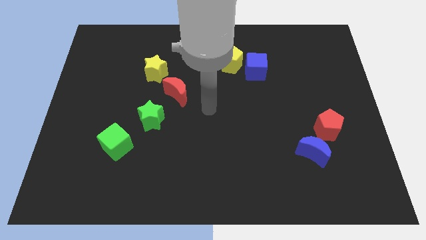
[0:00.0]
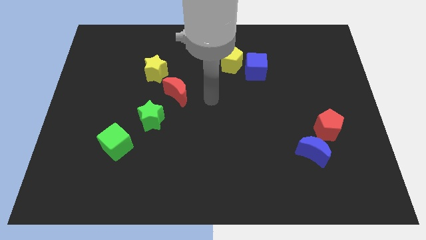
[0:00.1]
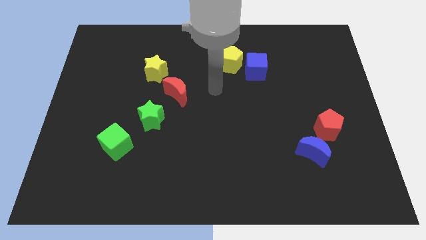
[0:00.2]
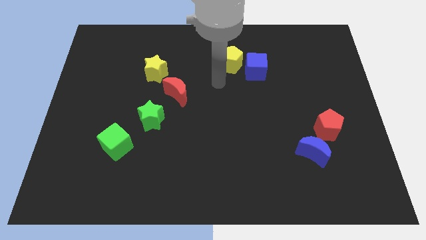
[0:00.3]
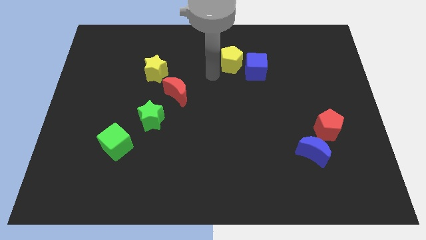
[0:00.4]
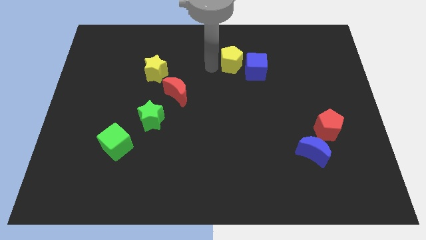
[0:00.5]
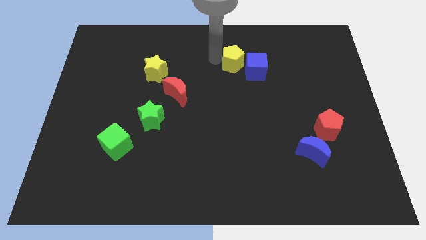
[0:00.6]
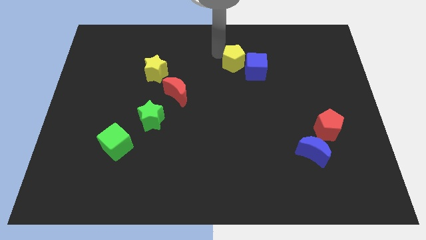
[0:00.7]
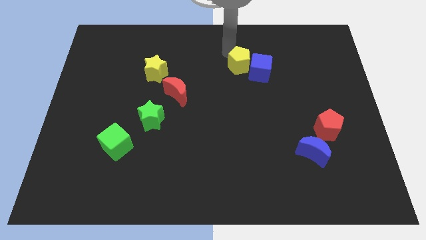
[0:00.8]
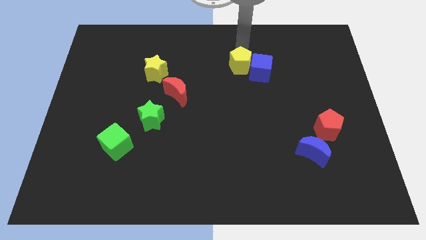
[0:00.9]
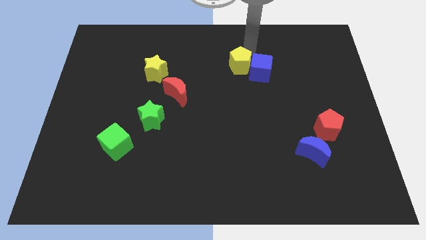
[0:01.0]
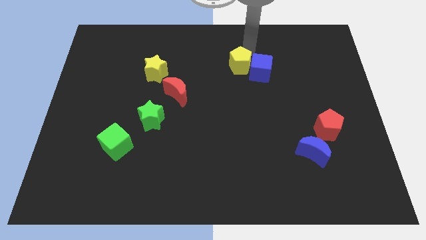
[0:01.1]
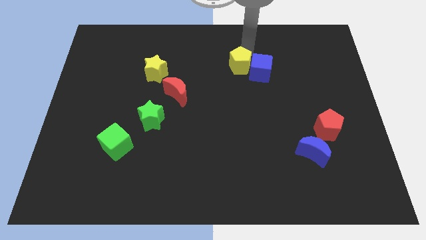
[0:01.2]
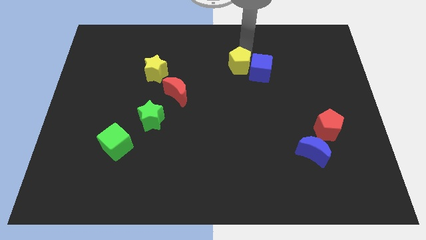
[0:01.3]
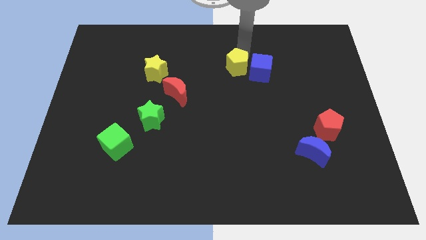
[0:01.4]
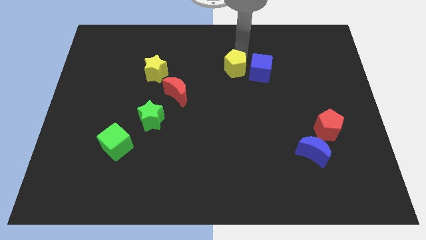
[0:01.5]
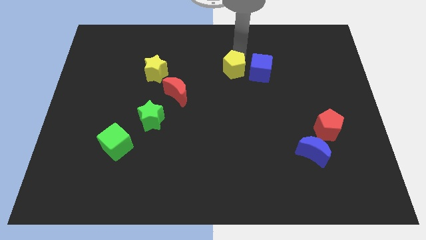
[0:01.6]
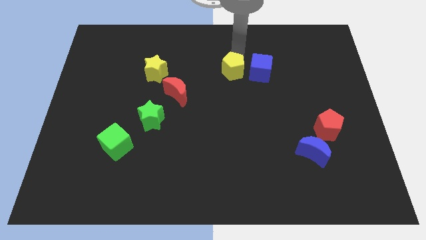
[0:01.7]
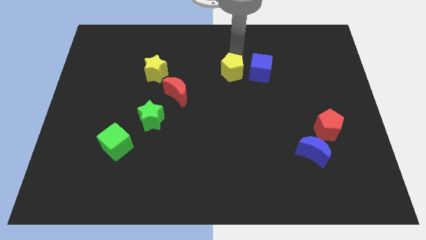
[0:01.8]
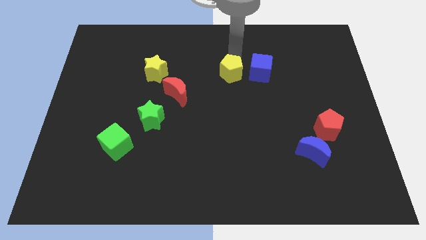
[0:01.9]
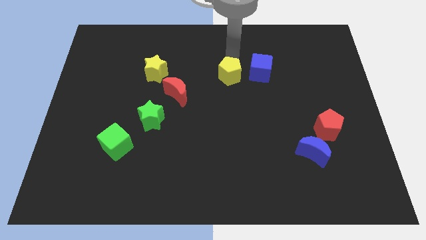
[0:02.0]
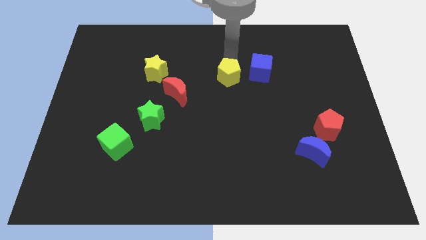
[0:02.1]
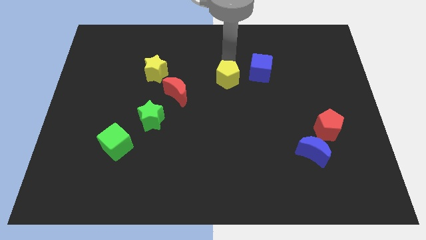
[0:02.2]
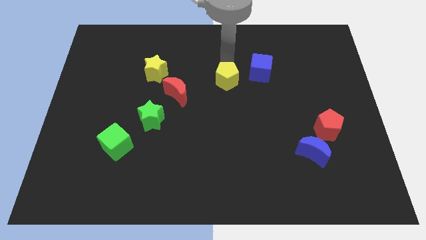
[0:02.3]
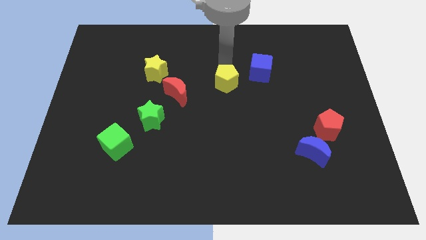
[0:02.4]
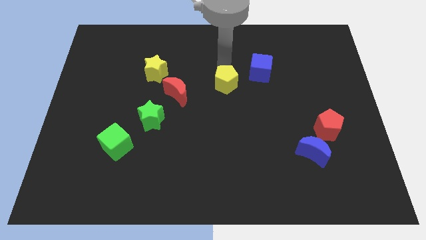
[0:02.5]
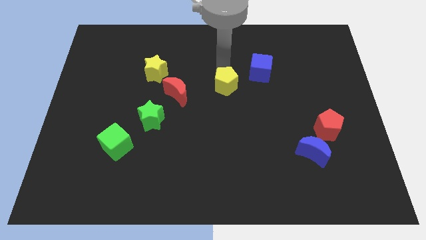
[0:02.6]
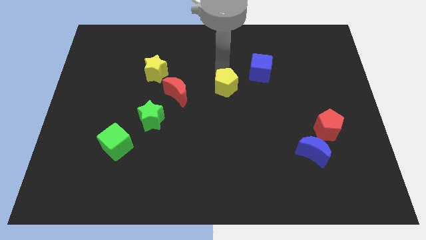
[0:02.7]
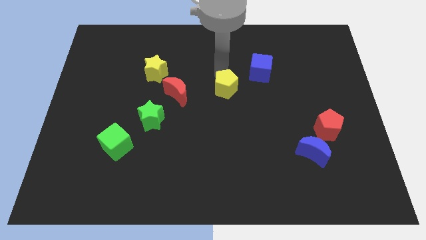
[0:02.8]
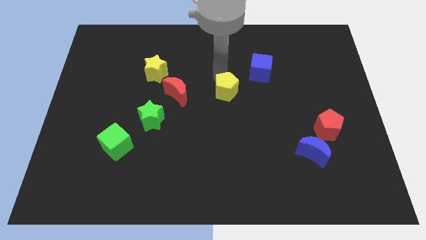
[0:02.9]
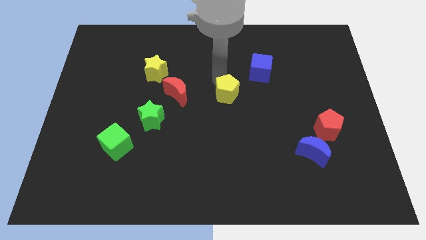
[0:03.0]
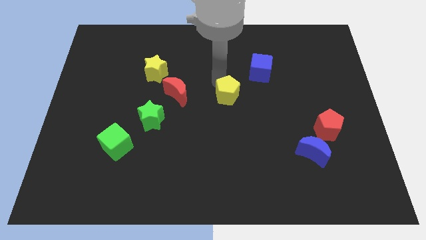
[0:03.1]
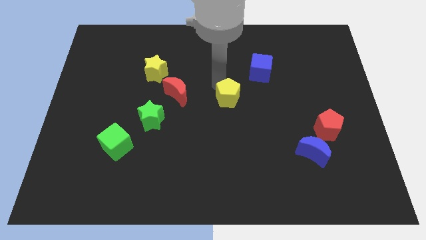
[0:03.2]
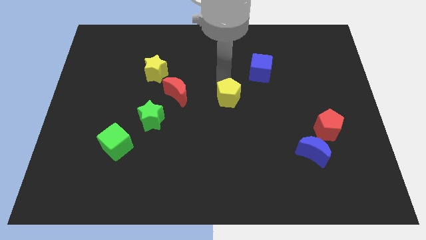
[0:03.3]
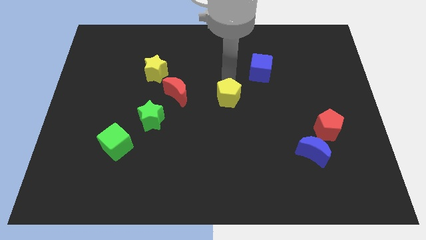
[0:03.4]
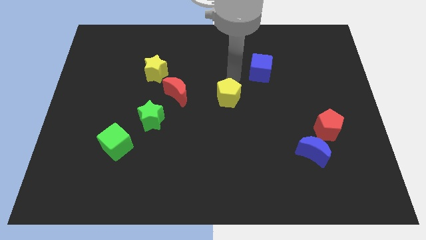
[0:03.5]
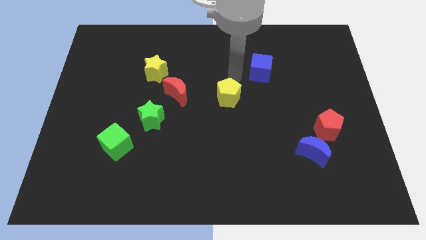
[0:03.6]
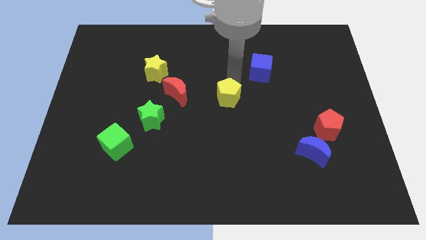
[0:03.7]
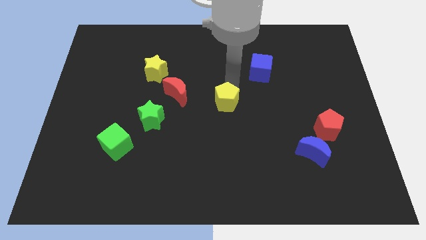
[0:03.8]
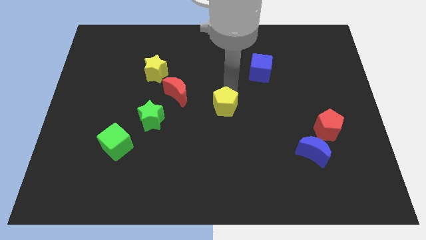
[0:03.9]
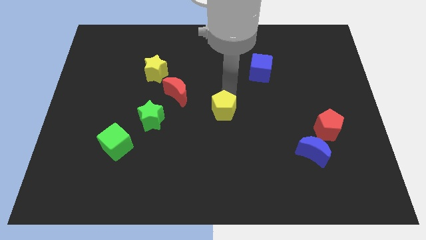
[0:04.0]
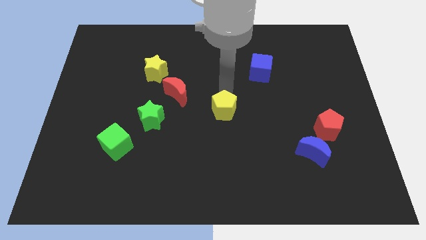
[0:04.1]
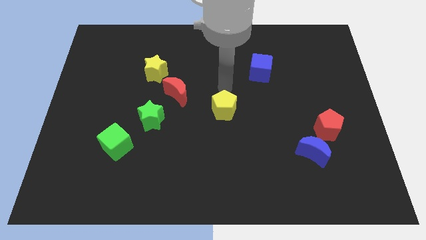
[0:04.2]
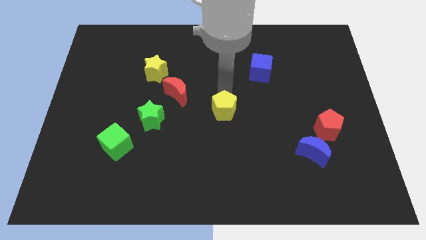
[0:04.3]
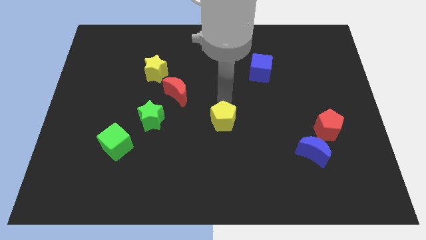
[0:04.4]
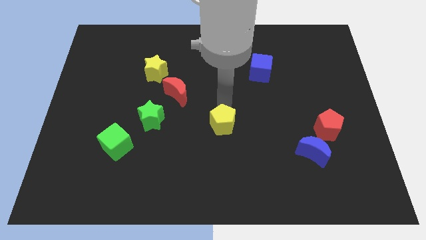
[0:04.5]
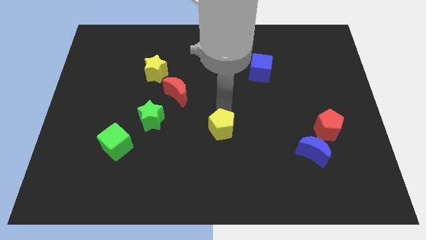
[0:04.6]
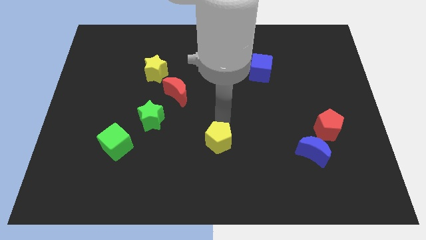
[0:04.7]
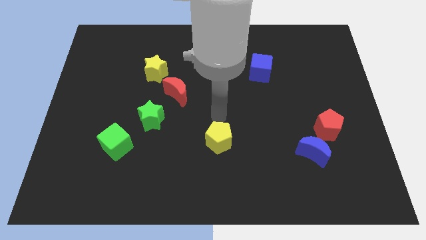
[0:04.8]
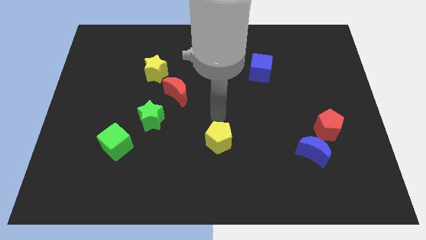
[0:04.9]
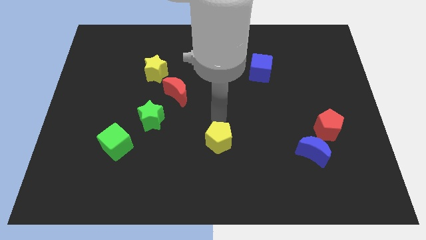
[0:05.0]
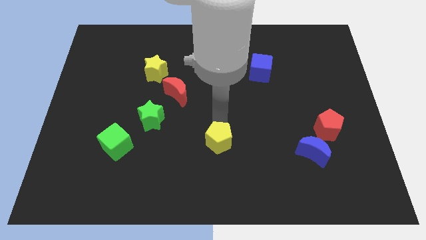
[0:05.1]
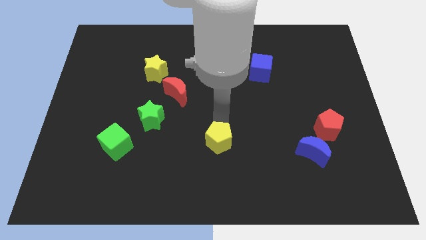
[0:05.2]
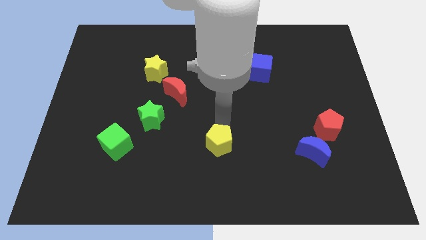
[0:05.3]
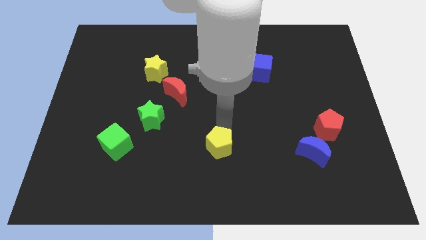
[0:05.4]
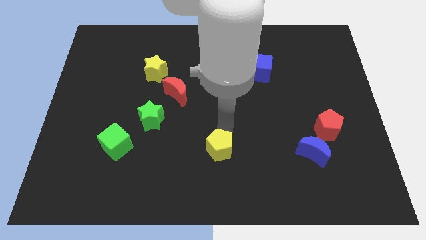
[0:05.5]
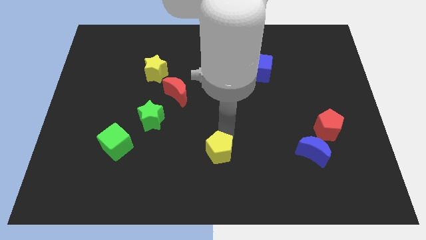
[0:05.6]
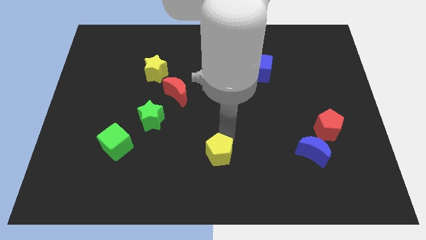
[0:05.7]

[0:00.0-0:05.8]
push the yellow pentagon to the bottom side

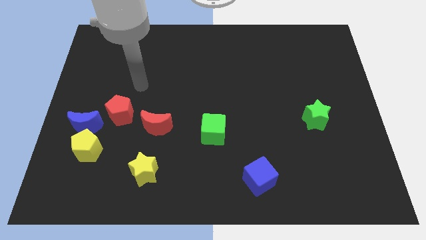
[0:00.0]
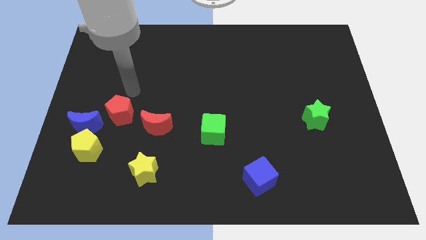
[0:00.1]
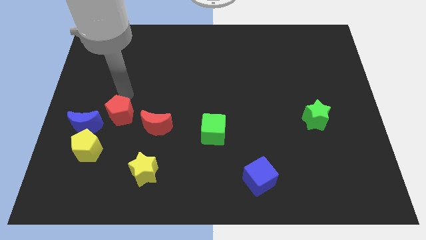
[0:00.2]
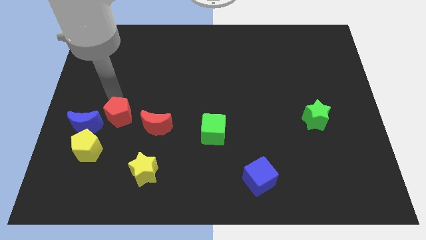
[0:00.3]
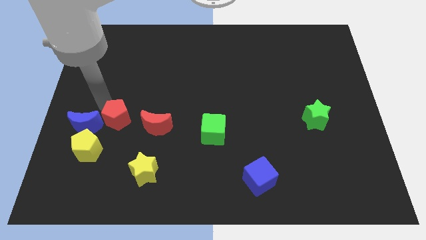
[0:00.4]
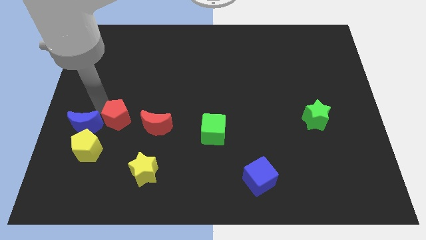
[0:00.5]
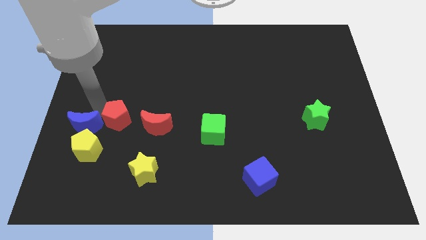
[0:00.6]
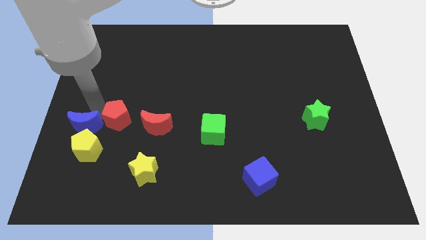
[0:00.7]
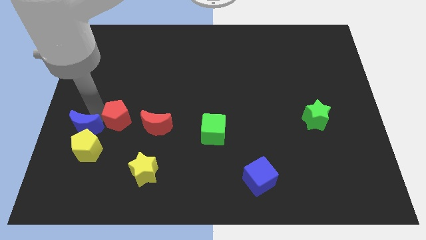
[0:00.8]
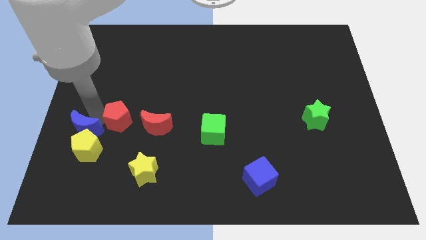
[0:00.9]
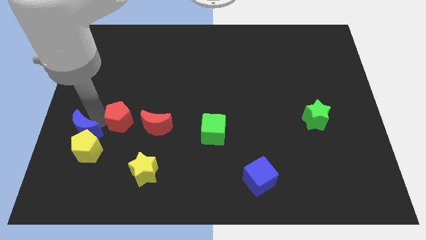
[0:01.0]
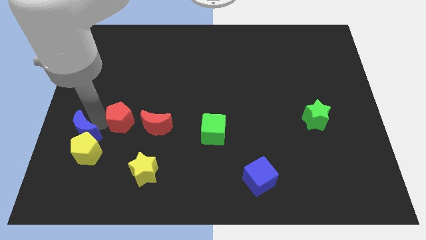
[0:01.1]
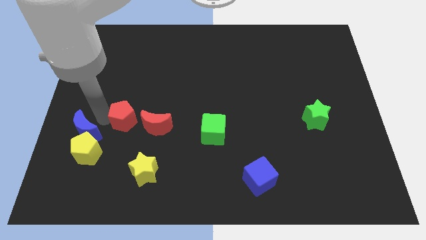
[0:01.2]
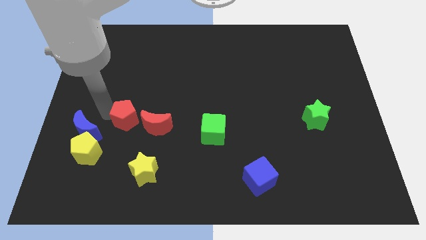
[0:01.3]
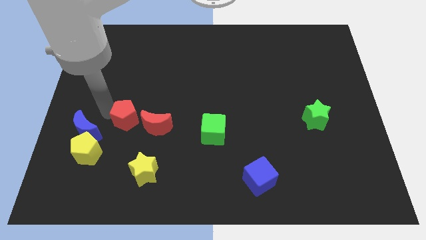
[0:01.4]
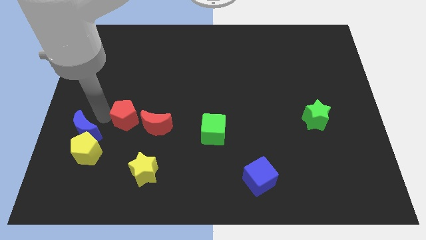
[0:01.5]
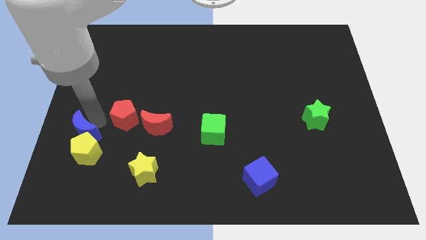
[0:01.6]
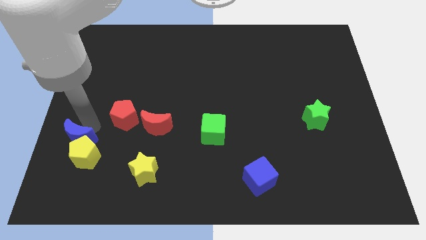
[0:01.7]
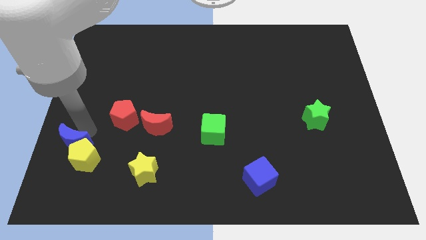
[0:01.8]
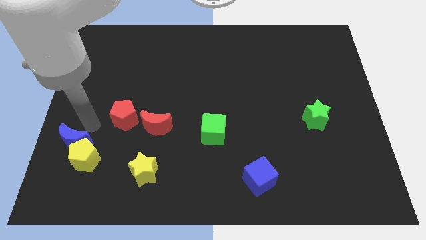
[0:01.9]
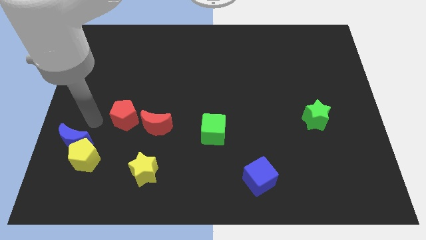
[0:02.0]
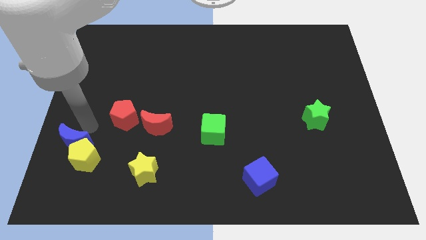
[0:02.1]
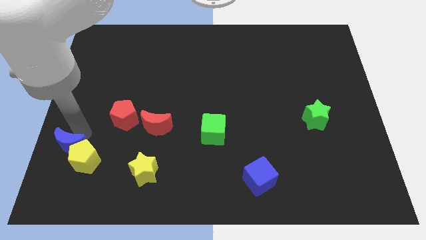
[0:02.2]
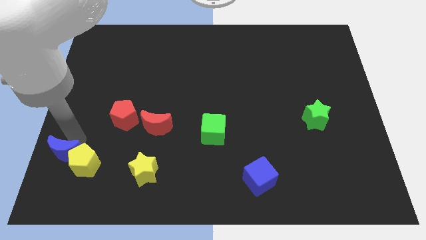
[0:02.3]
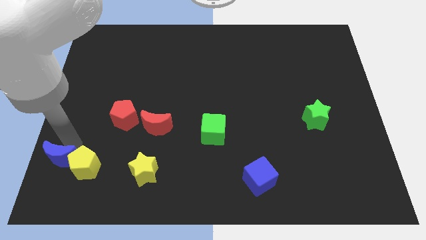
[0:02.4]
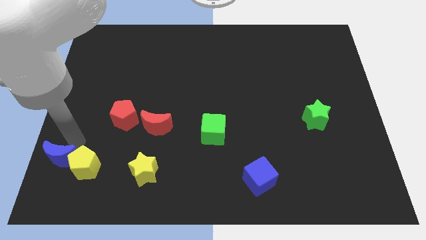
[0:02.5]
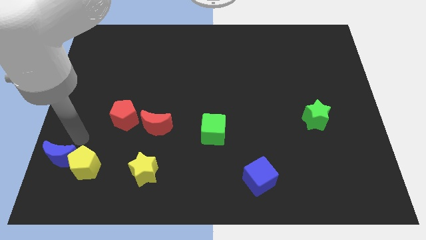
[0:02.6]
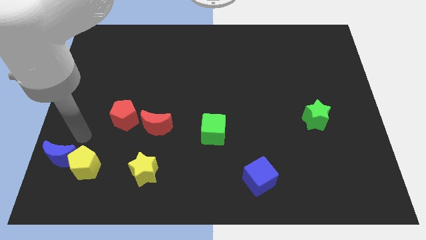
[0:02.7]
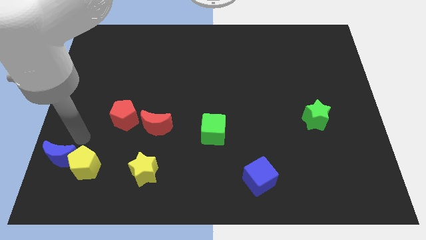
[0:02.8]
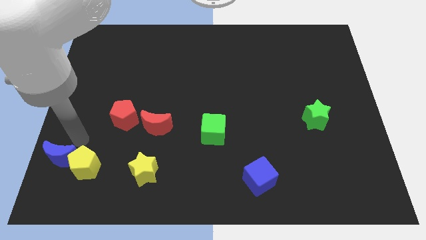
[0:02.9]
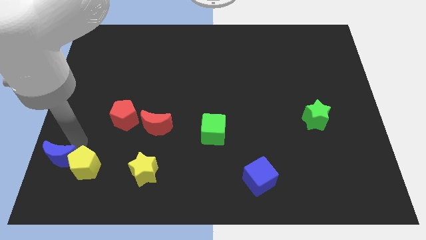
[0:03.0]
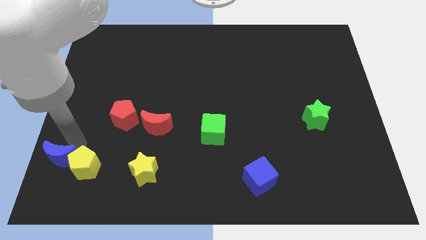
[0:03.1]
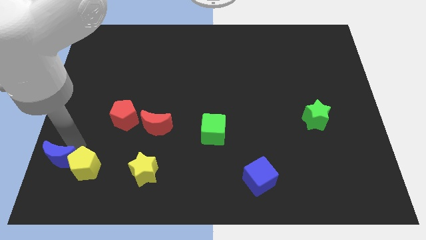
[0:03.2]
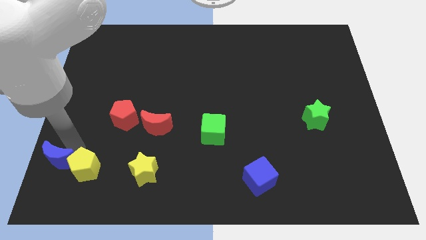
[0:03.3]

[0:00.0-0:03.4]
move the blue moon to the lower left corner
